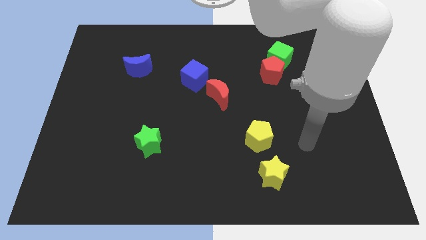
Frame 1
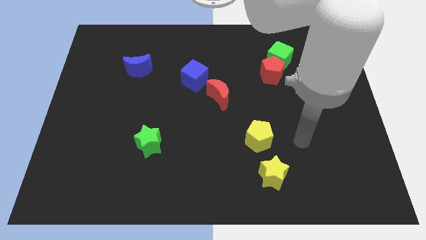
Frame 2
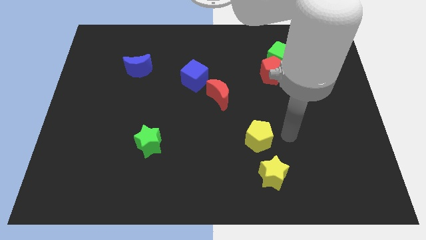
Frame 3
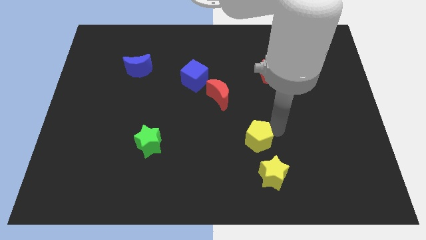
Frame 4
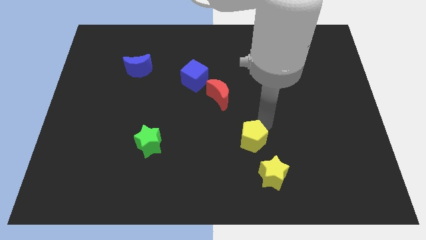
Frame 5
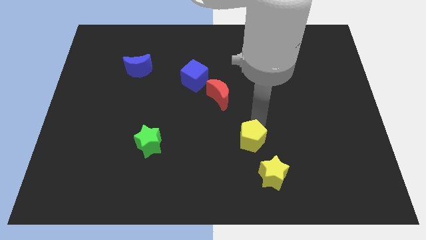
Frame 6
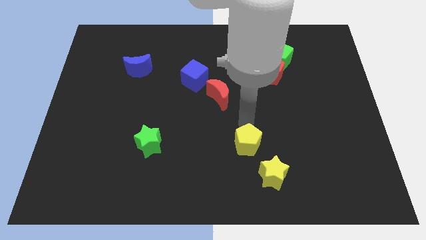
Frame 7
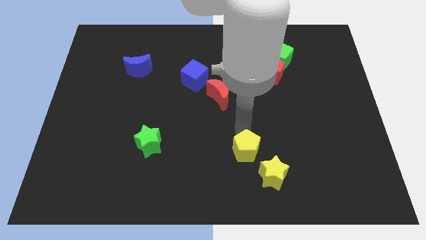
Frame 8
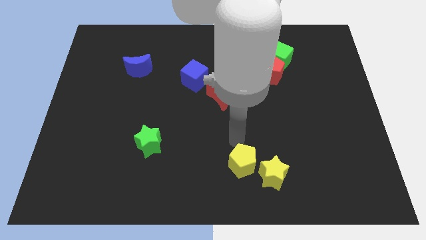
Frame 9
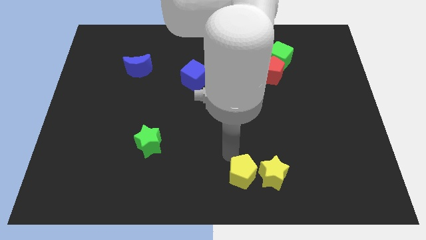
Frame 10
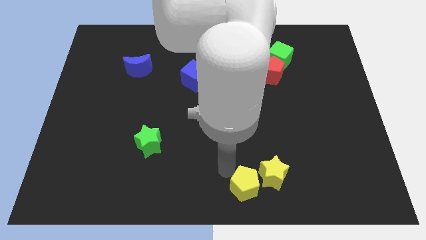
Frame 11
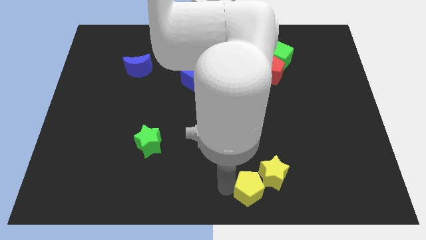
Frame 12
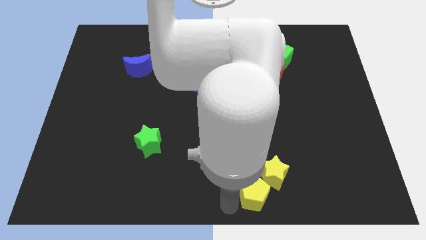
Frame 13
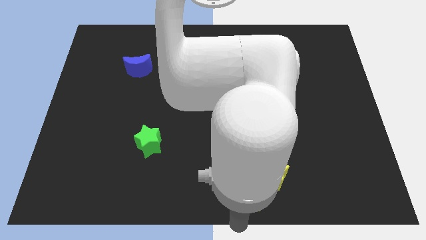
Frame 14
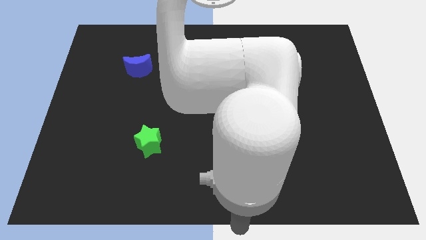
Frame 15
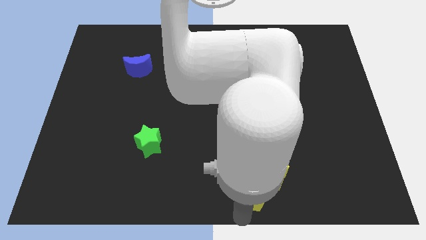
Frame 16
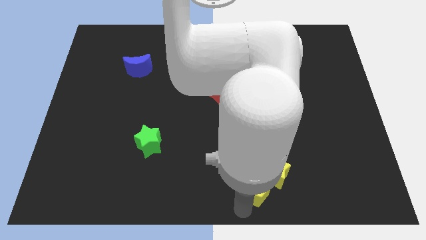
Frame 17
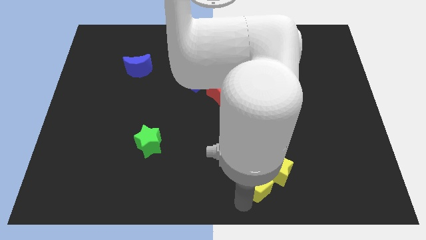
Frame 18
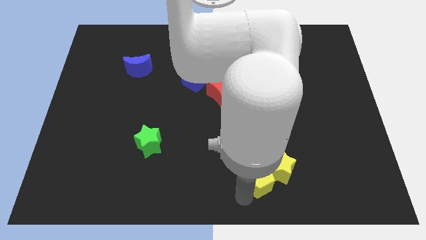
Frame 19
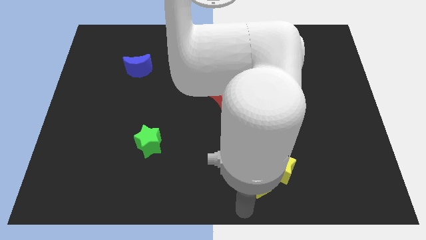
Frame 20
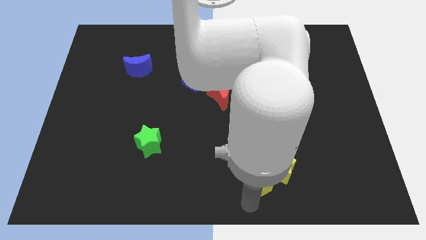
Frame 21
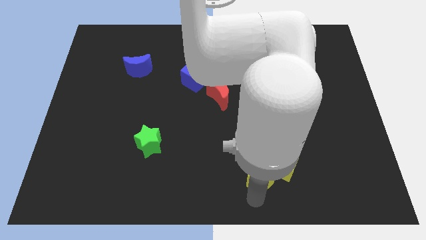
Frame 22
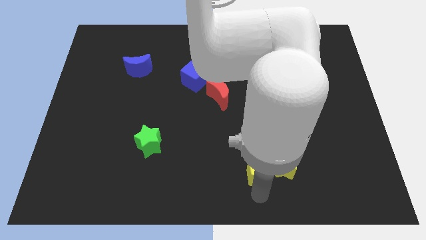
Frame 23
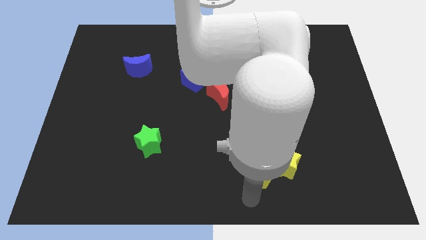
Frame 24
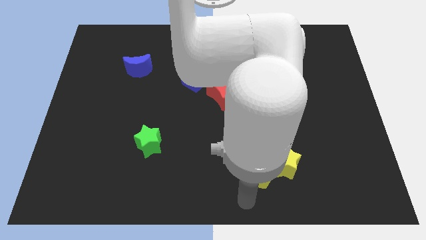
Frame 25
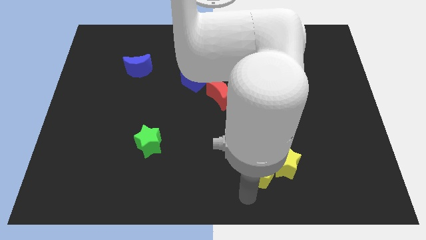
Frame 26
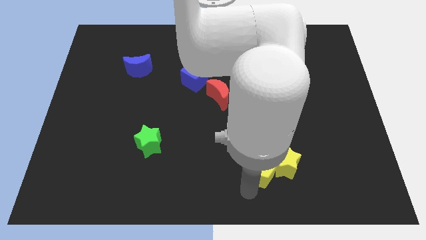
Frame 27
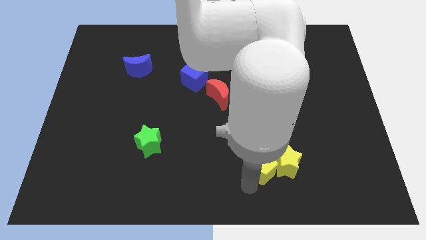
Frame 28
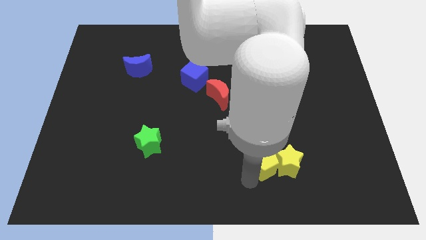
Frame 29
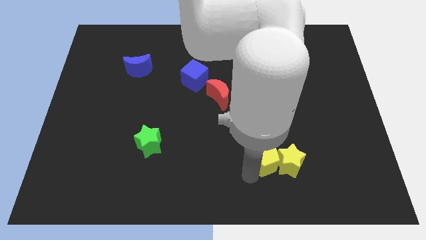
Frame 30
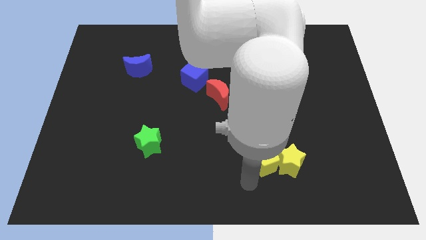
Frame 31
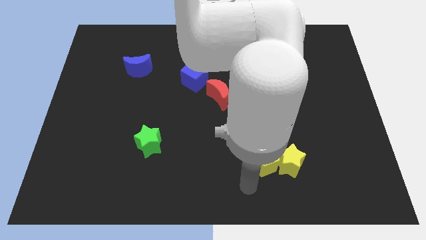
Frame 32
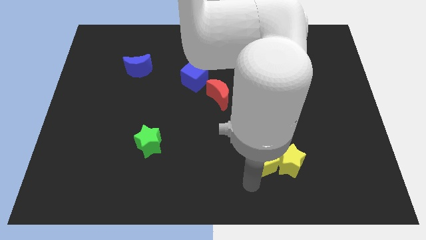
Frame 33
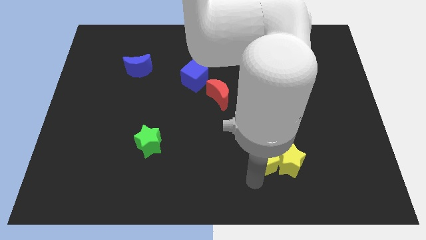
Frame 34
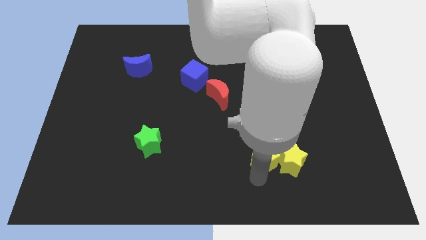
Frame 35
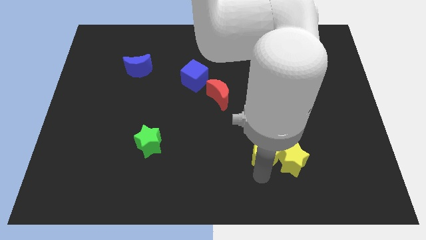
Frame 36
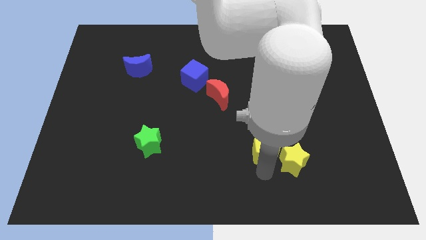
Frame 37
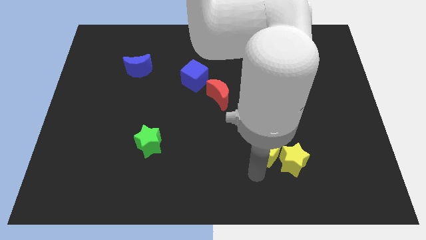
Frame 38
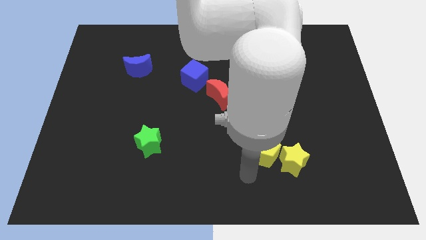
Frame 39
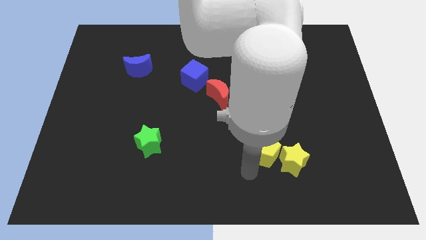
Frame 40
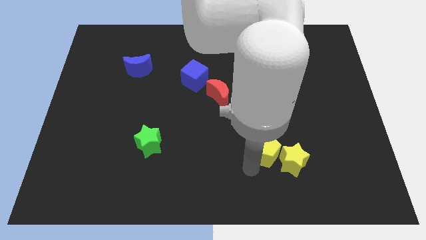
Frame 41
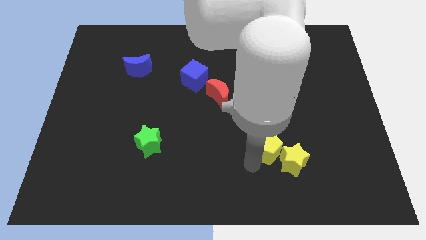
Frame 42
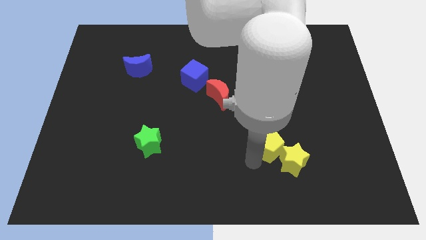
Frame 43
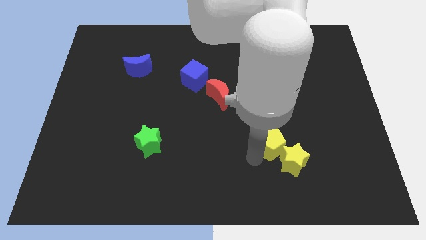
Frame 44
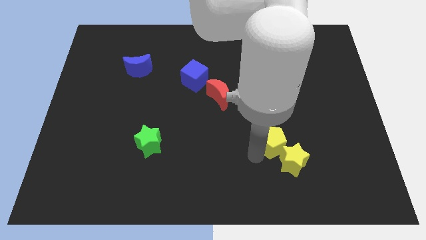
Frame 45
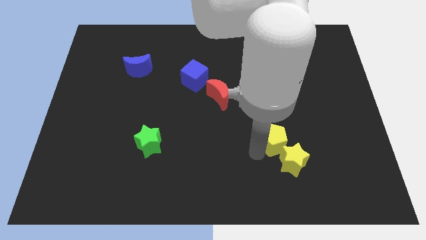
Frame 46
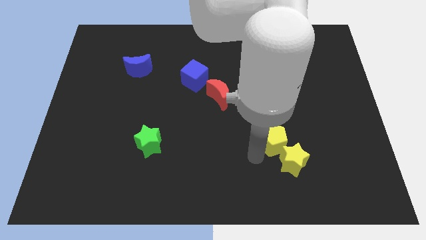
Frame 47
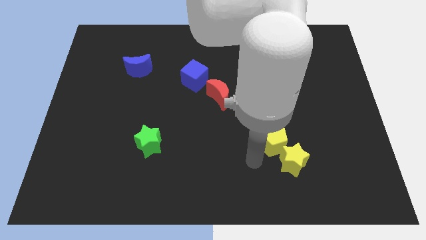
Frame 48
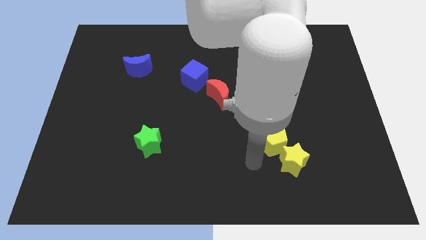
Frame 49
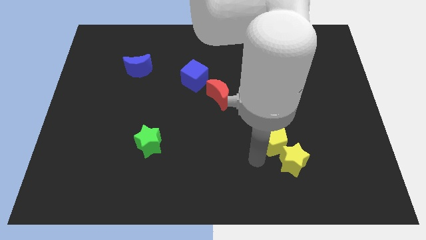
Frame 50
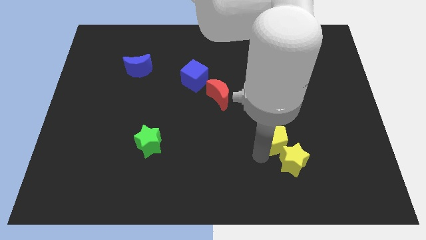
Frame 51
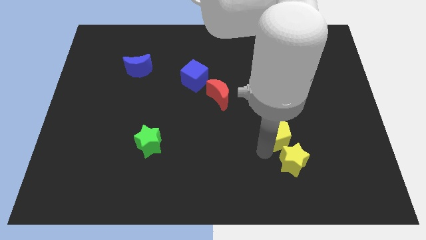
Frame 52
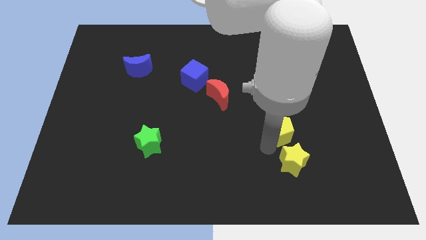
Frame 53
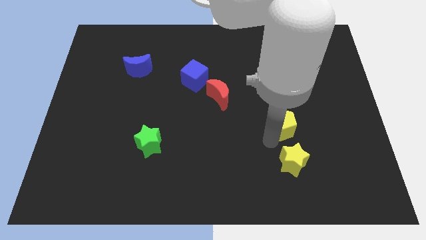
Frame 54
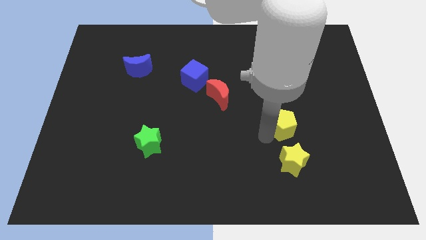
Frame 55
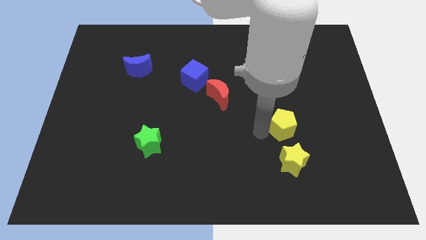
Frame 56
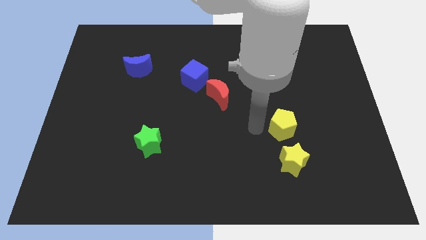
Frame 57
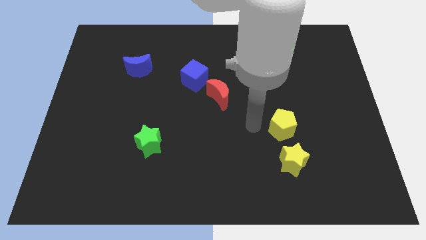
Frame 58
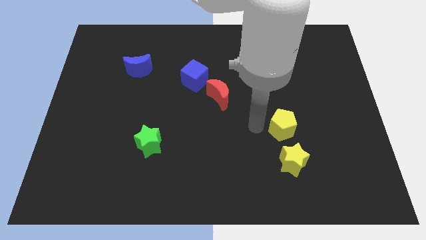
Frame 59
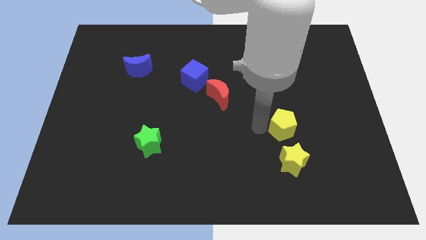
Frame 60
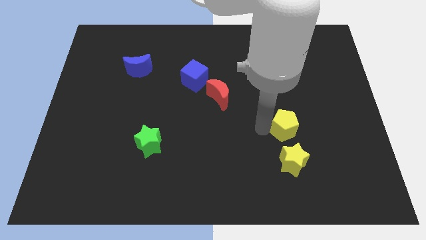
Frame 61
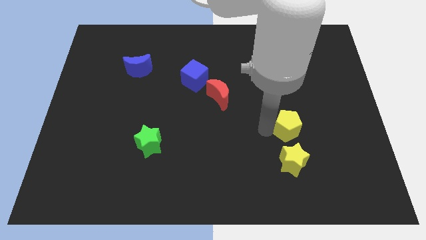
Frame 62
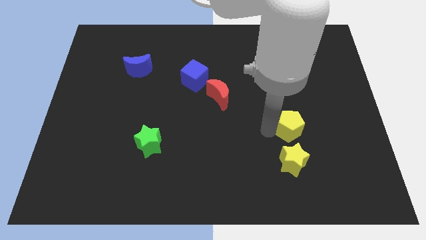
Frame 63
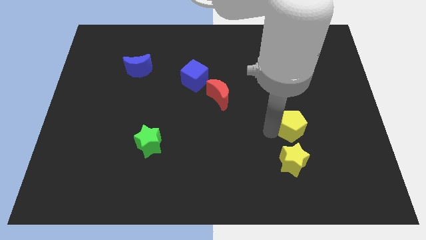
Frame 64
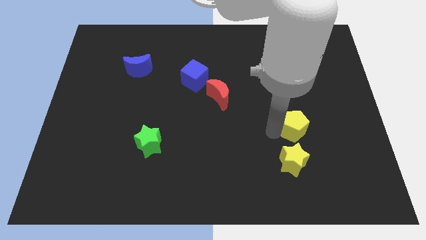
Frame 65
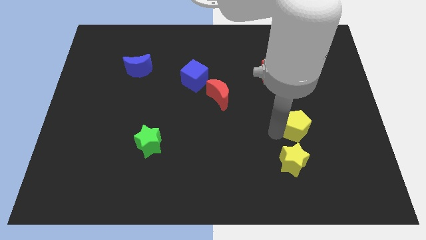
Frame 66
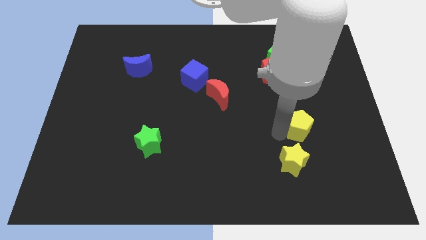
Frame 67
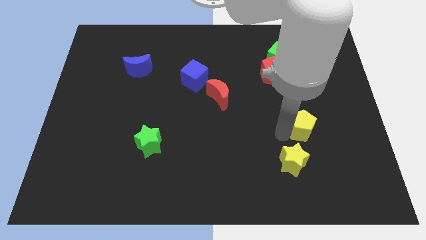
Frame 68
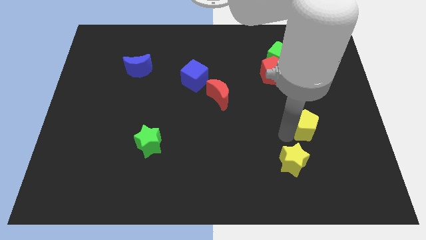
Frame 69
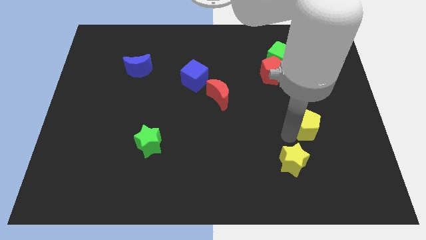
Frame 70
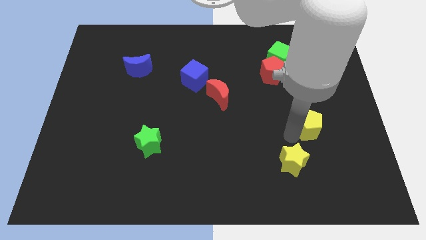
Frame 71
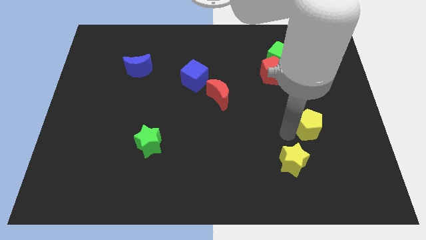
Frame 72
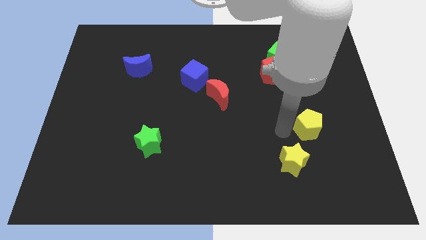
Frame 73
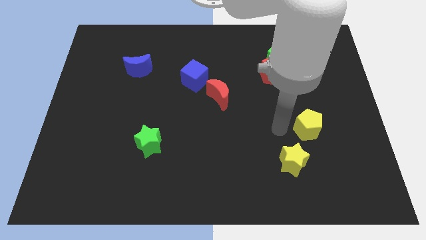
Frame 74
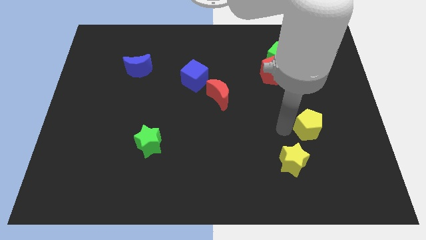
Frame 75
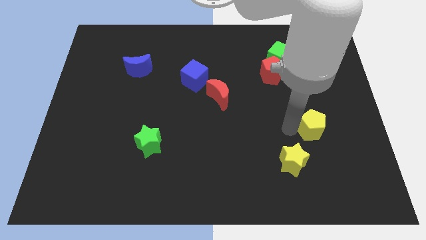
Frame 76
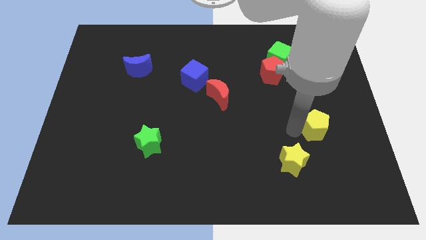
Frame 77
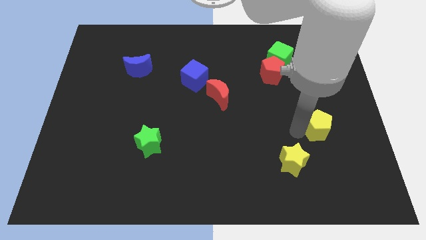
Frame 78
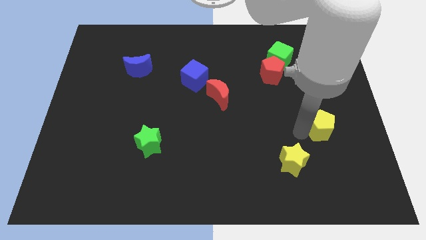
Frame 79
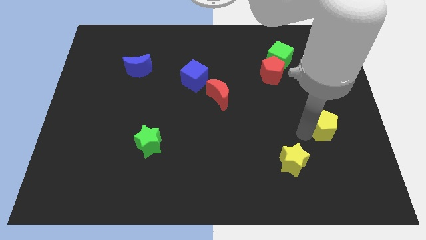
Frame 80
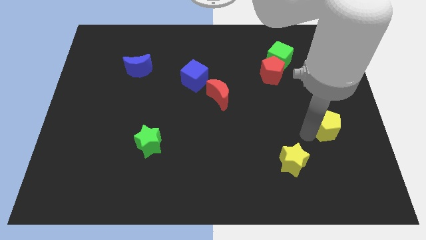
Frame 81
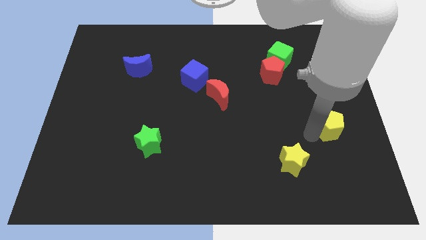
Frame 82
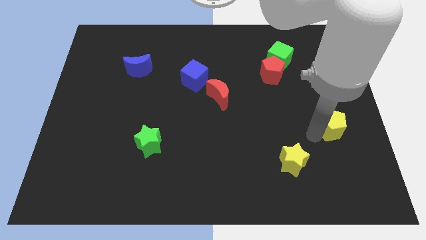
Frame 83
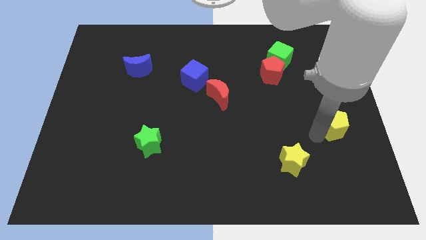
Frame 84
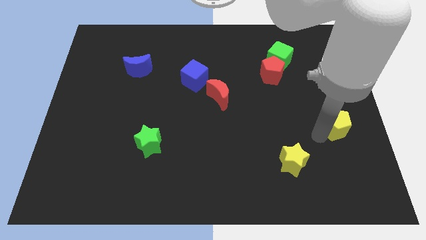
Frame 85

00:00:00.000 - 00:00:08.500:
move the yellow pentagon to the right side
